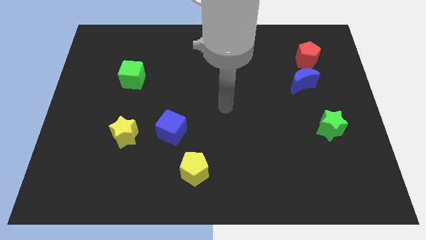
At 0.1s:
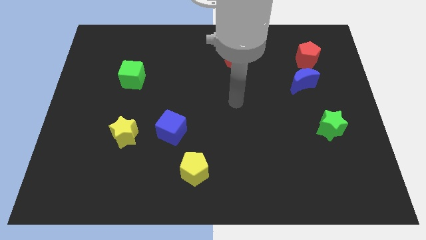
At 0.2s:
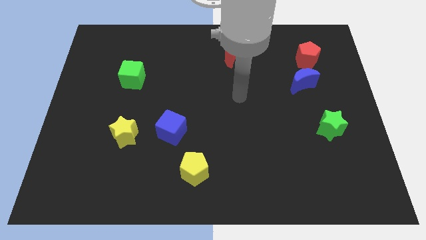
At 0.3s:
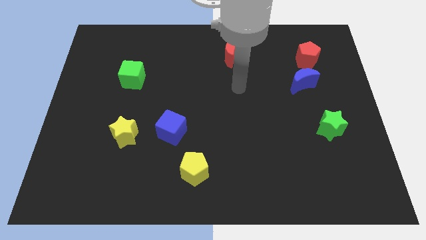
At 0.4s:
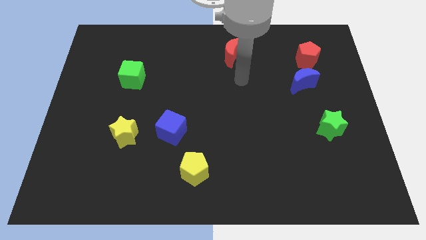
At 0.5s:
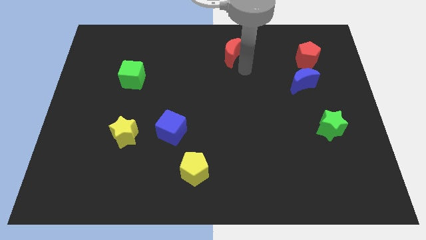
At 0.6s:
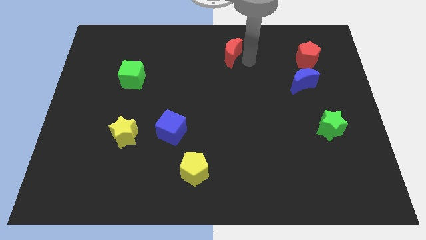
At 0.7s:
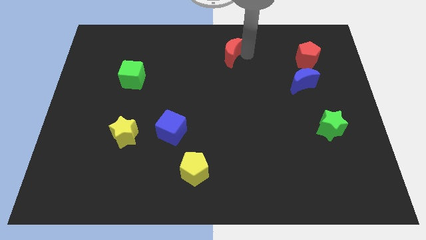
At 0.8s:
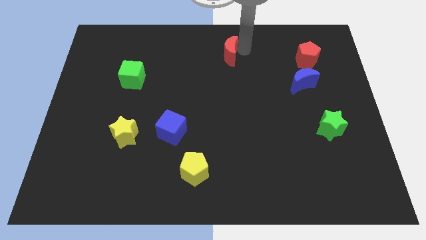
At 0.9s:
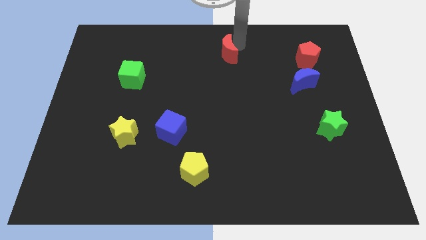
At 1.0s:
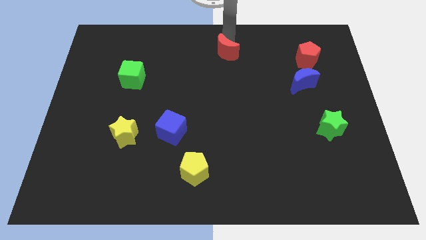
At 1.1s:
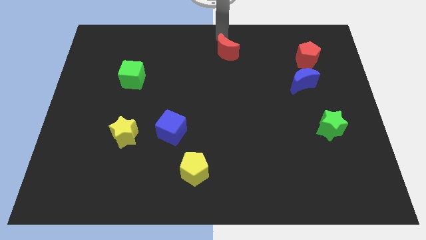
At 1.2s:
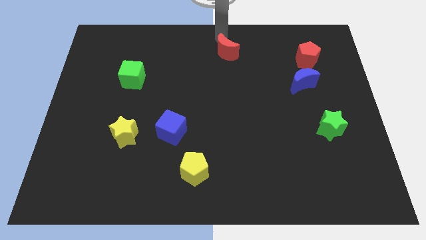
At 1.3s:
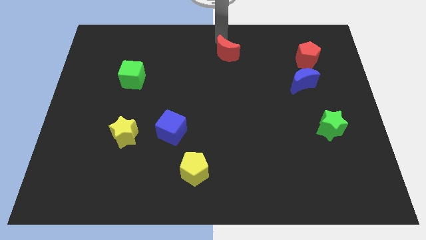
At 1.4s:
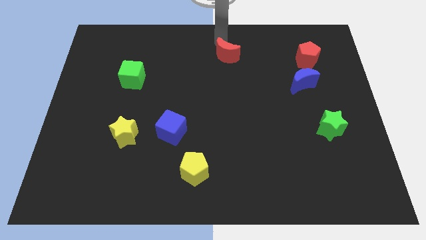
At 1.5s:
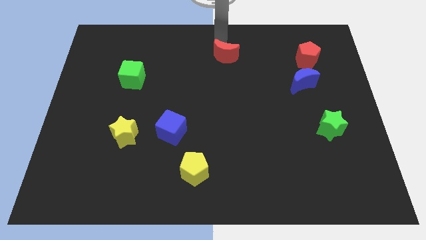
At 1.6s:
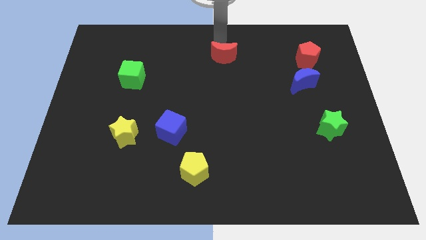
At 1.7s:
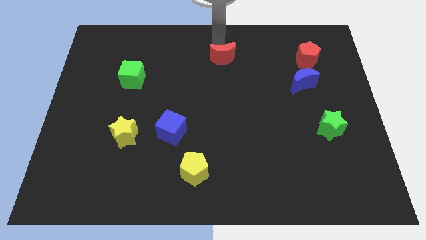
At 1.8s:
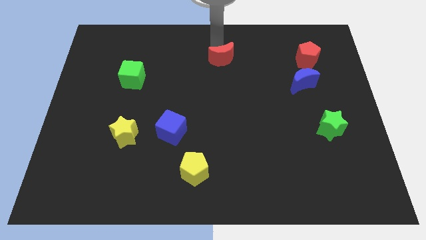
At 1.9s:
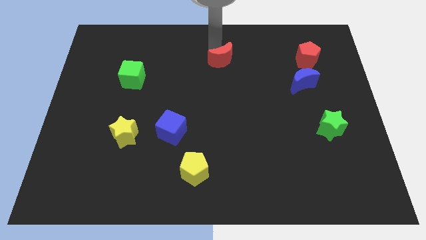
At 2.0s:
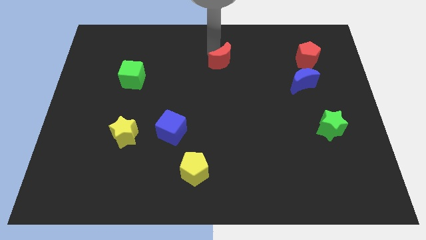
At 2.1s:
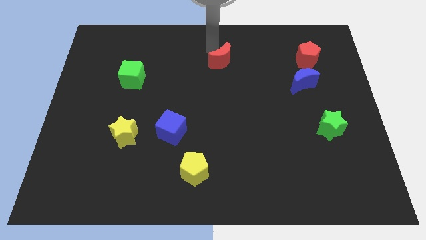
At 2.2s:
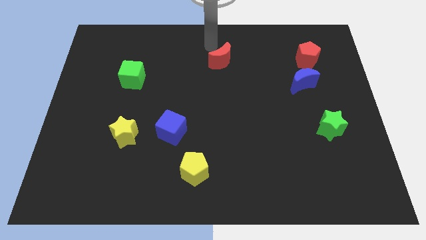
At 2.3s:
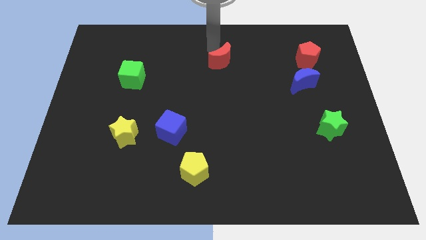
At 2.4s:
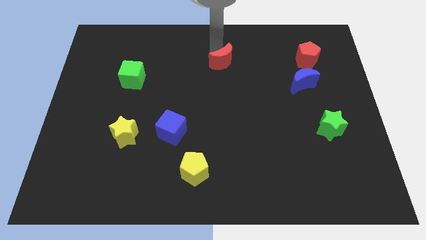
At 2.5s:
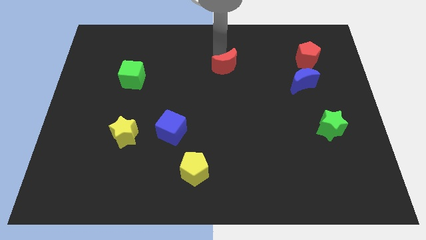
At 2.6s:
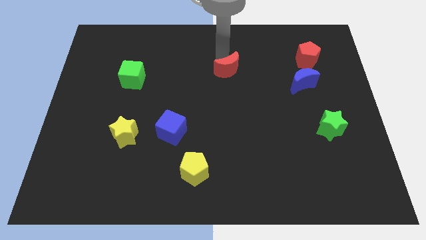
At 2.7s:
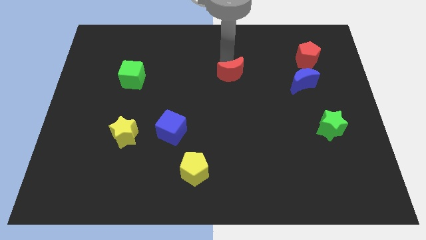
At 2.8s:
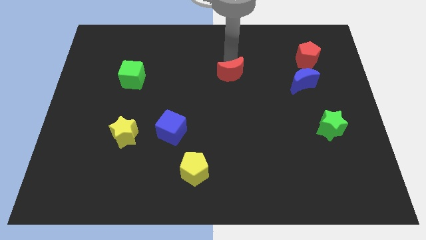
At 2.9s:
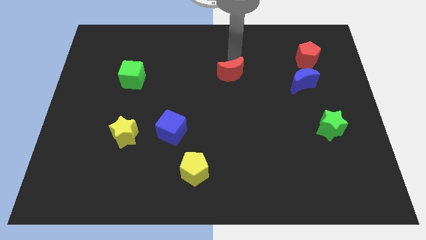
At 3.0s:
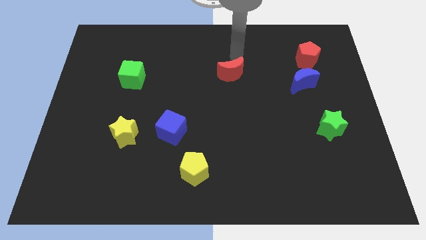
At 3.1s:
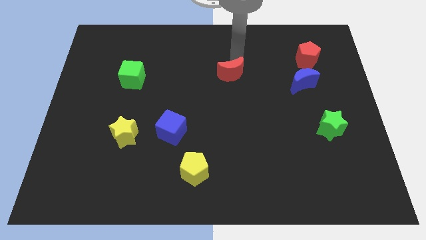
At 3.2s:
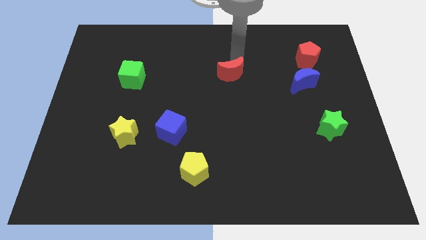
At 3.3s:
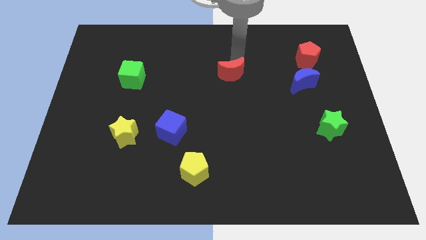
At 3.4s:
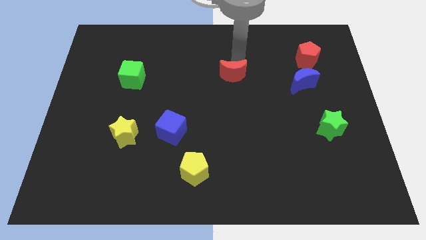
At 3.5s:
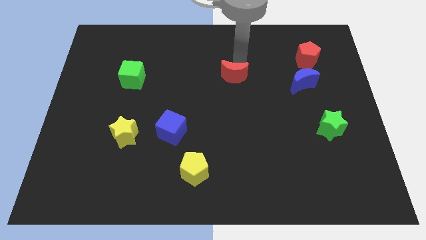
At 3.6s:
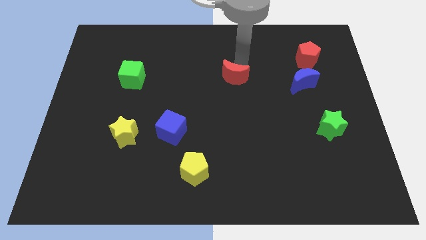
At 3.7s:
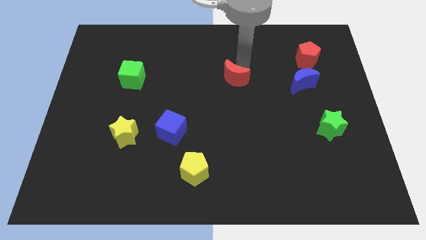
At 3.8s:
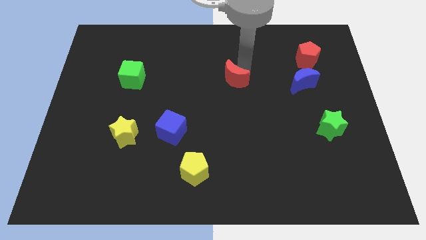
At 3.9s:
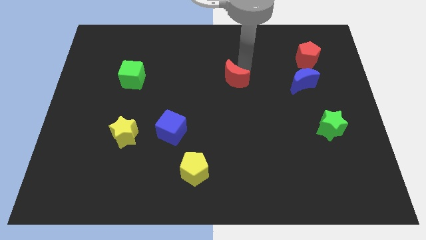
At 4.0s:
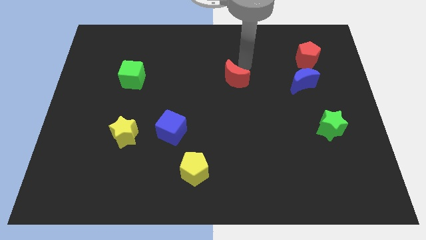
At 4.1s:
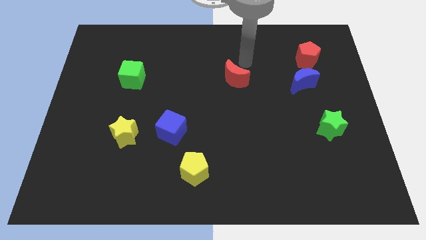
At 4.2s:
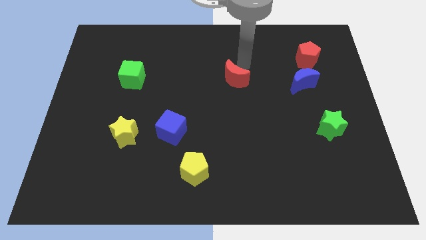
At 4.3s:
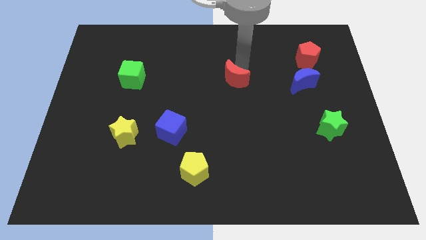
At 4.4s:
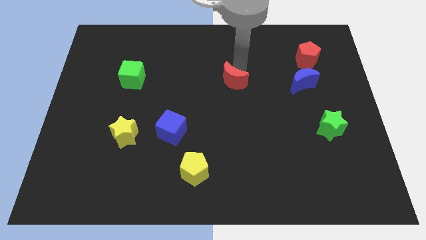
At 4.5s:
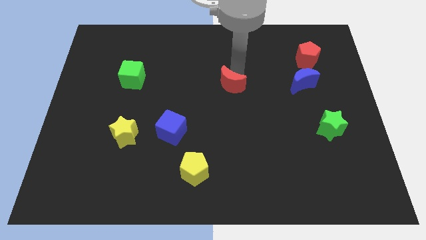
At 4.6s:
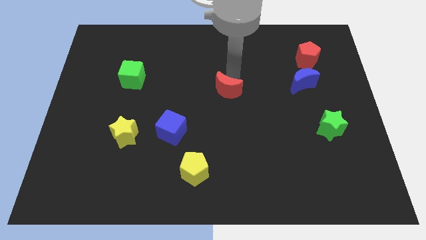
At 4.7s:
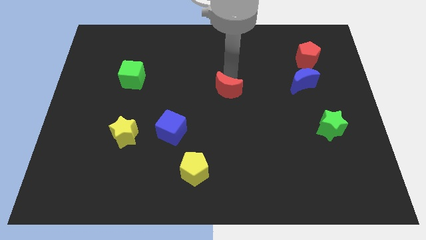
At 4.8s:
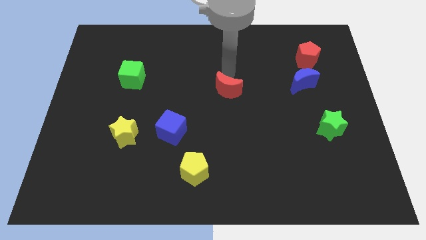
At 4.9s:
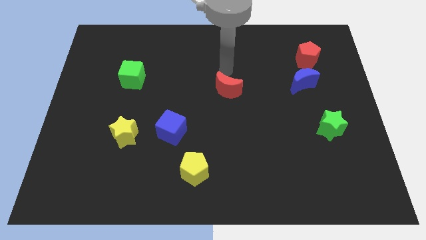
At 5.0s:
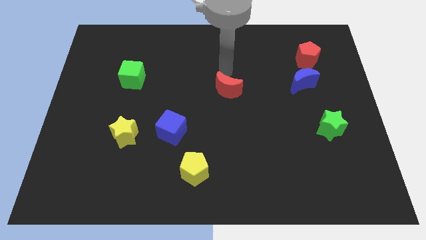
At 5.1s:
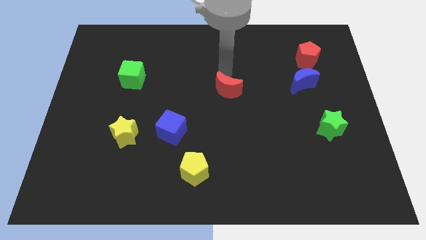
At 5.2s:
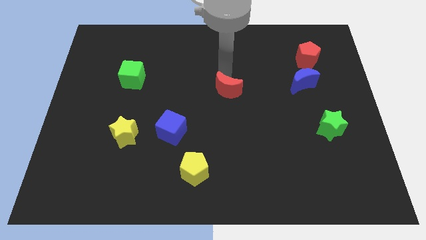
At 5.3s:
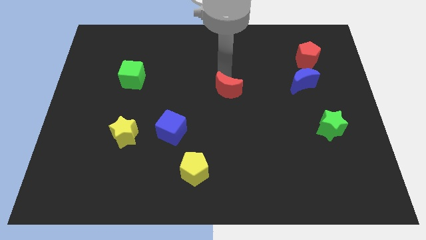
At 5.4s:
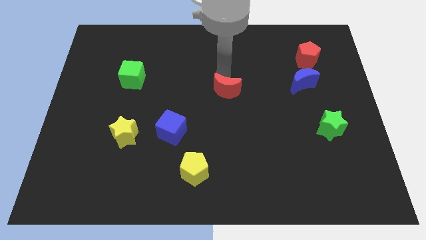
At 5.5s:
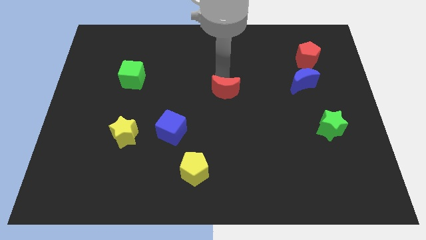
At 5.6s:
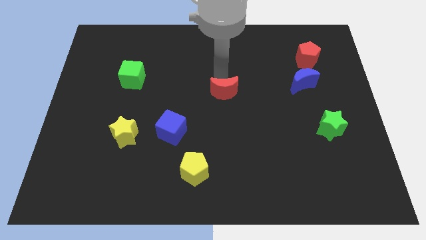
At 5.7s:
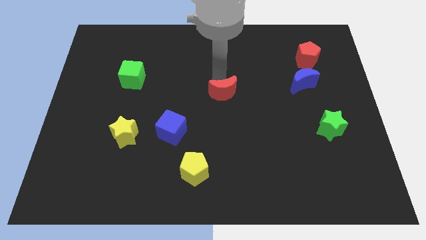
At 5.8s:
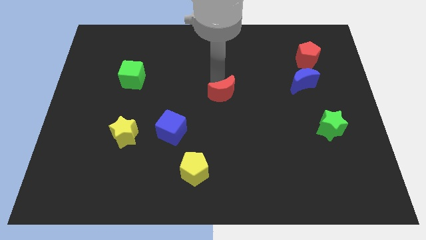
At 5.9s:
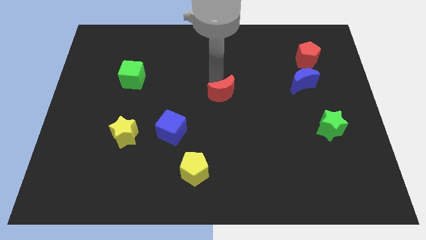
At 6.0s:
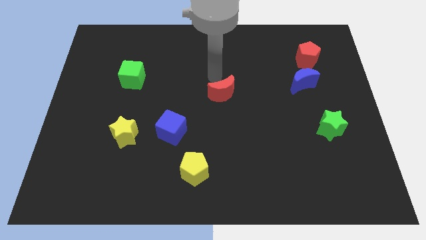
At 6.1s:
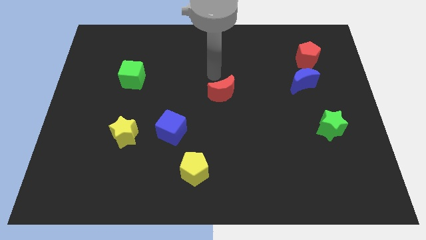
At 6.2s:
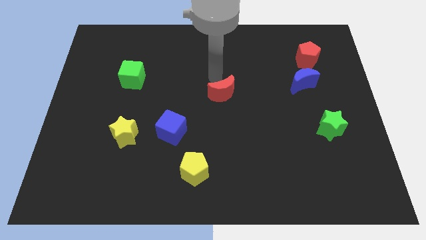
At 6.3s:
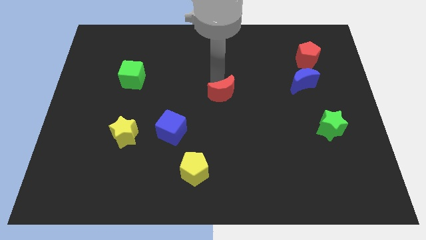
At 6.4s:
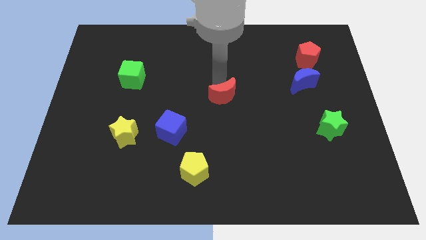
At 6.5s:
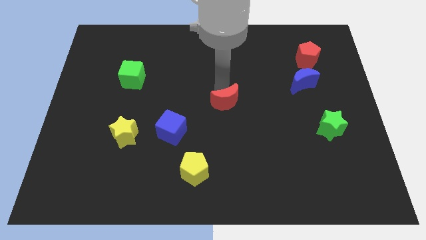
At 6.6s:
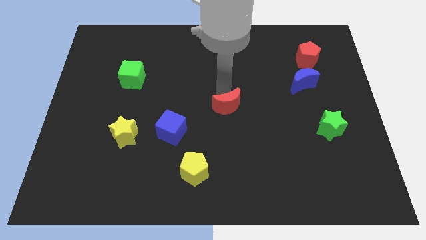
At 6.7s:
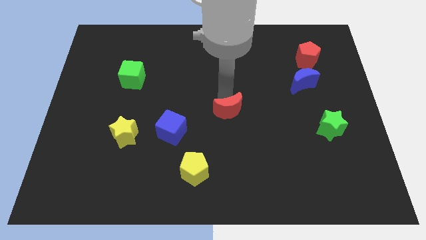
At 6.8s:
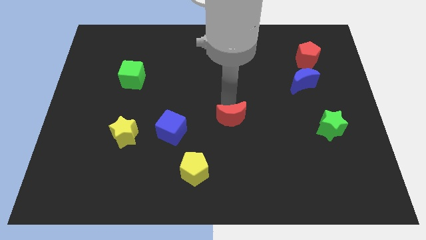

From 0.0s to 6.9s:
move the red moon down

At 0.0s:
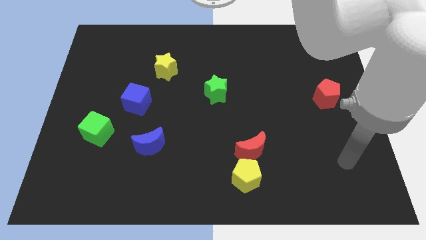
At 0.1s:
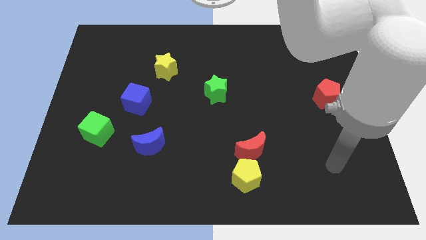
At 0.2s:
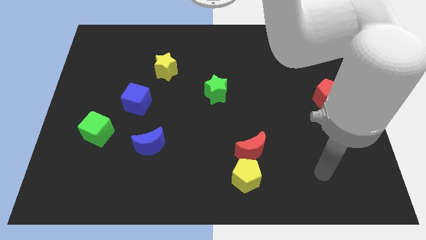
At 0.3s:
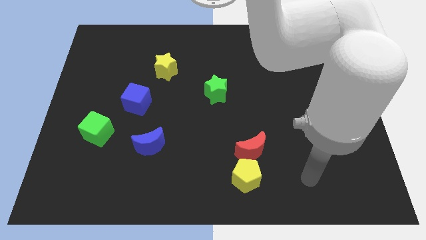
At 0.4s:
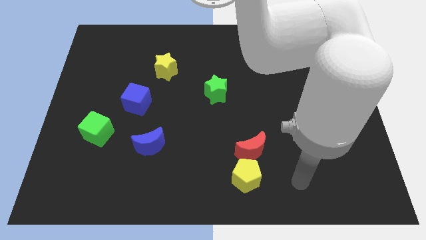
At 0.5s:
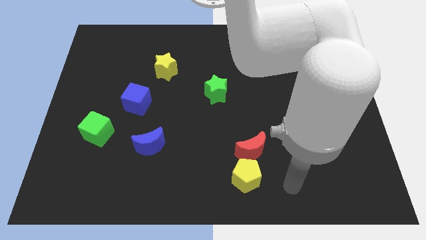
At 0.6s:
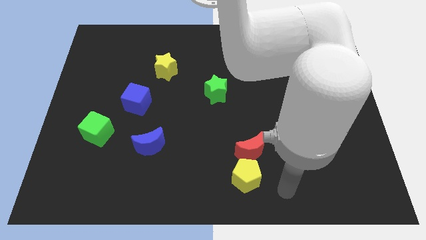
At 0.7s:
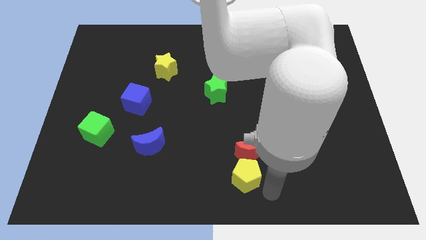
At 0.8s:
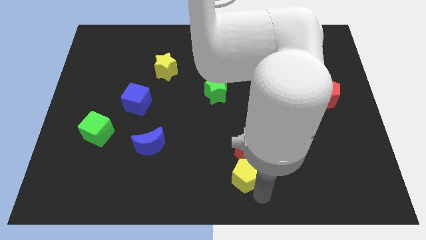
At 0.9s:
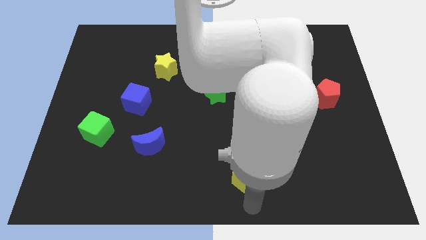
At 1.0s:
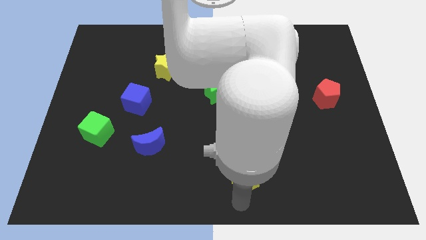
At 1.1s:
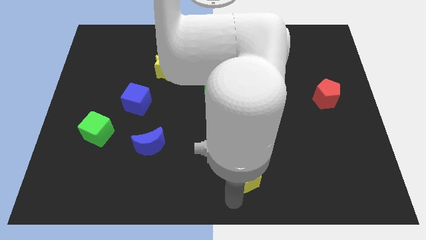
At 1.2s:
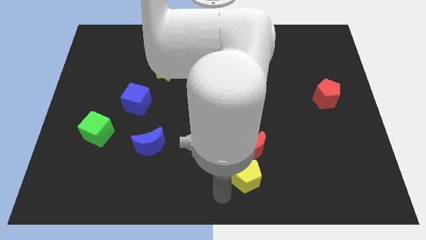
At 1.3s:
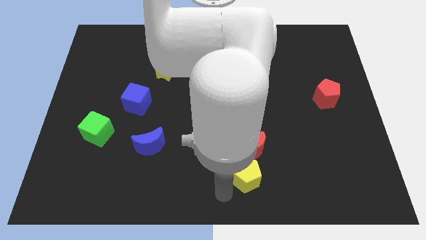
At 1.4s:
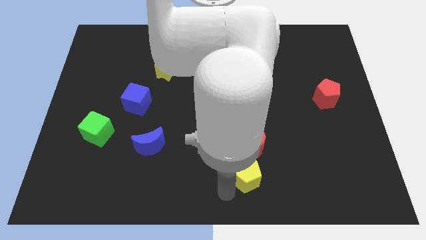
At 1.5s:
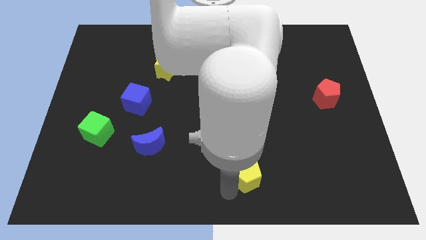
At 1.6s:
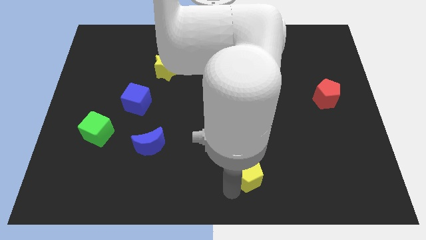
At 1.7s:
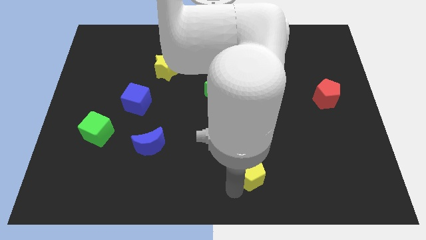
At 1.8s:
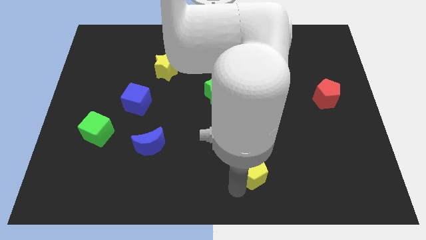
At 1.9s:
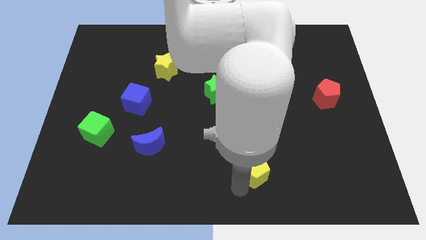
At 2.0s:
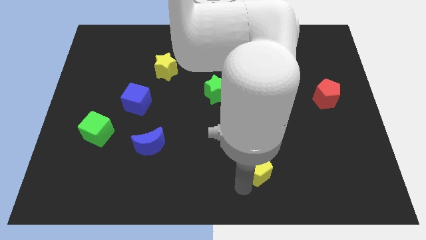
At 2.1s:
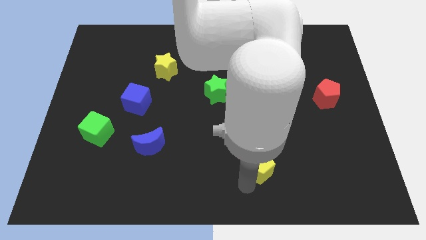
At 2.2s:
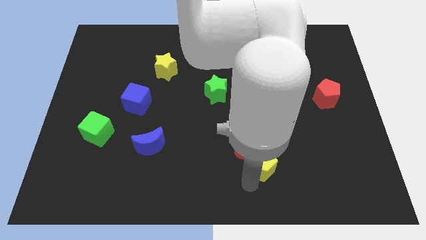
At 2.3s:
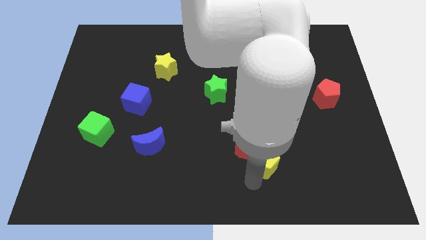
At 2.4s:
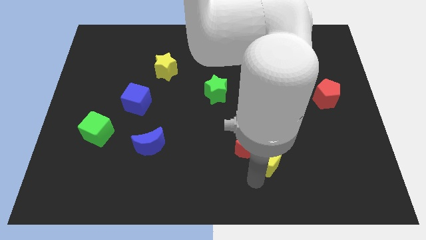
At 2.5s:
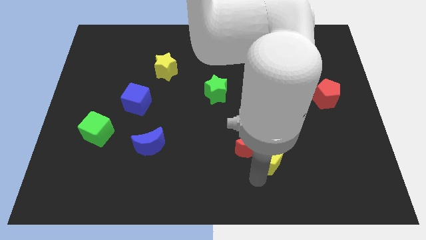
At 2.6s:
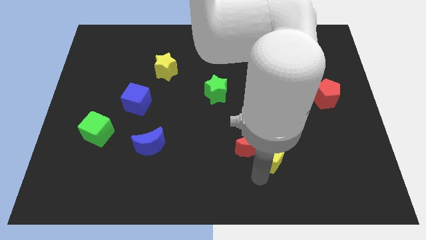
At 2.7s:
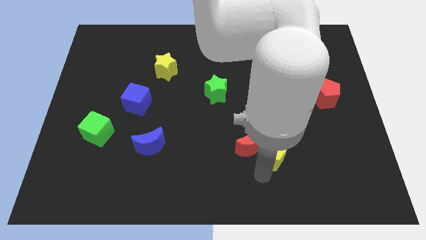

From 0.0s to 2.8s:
slightly move the yellow pentagon upwards and to the right
